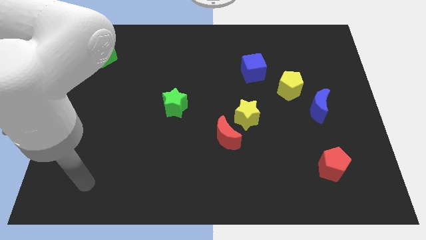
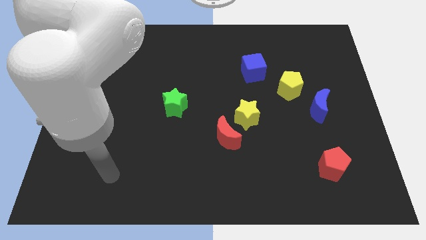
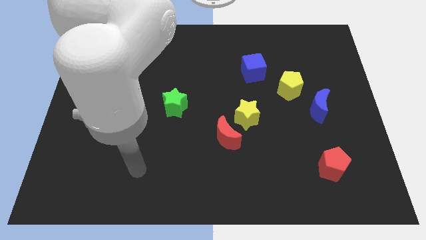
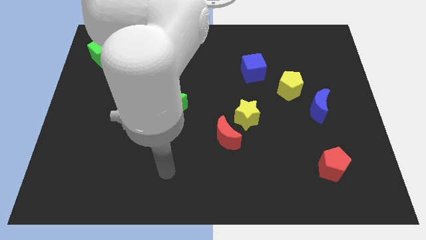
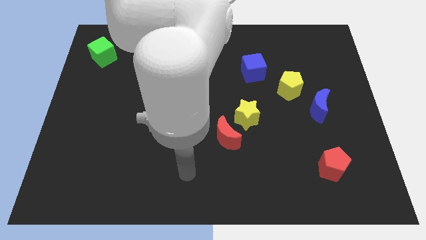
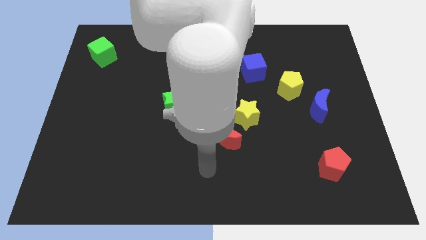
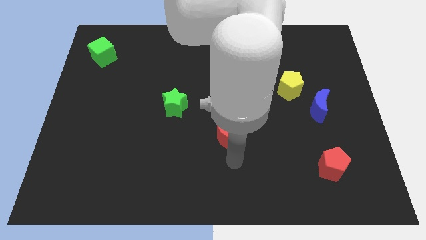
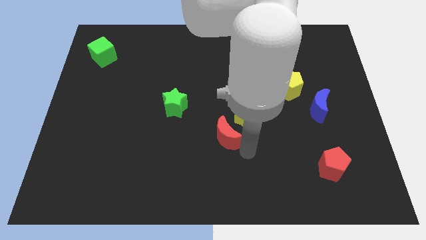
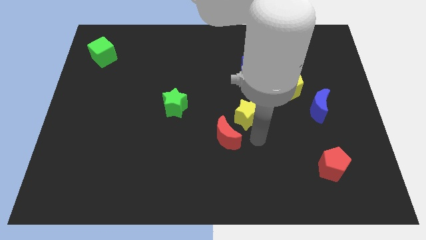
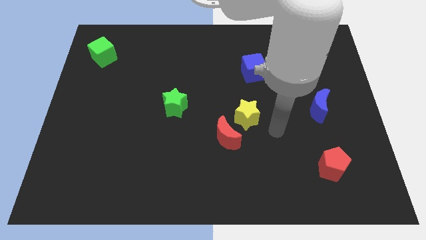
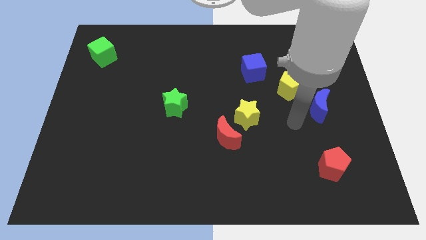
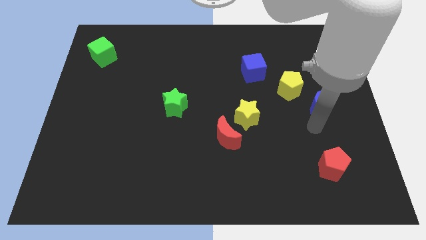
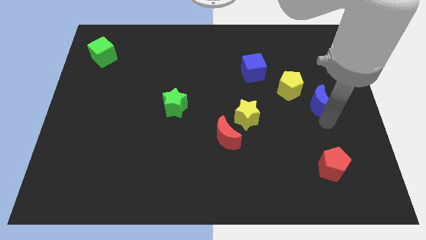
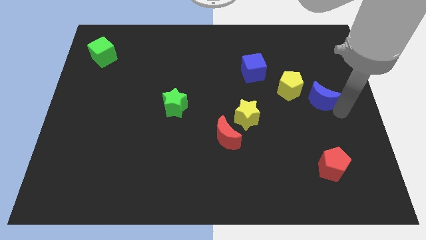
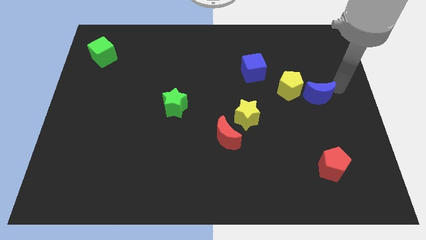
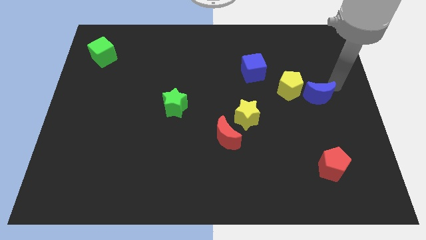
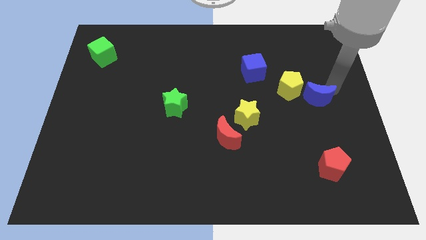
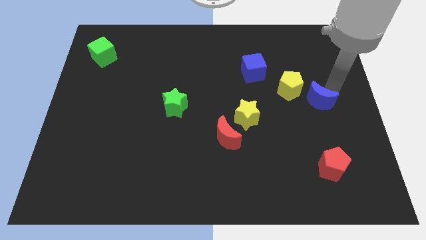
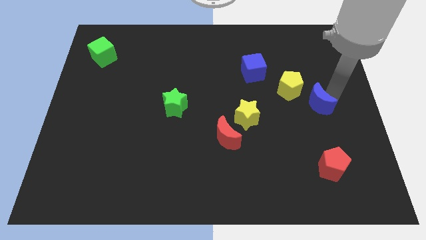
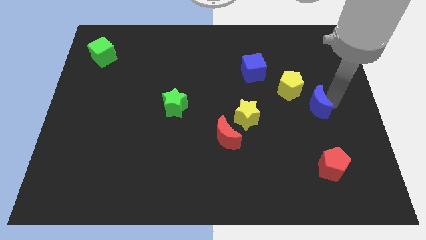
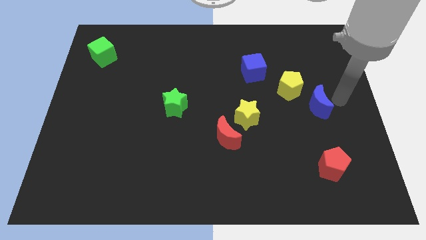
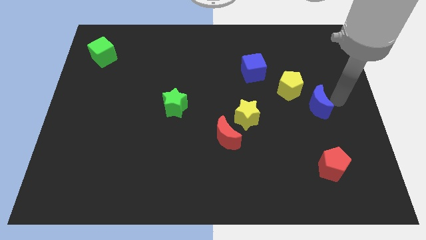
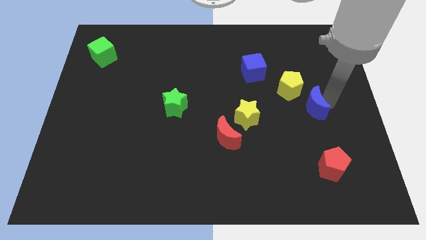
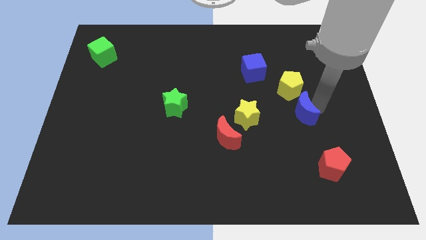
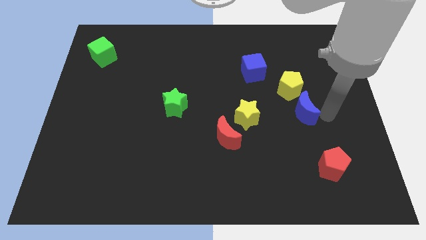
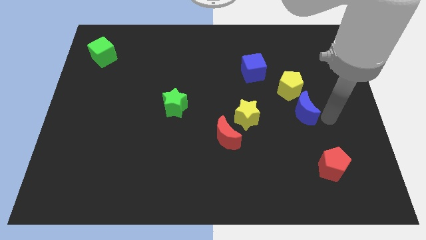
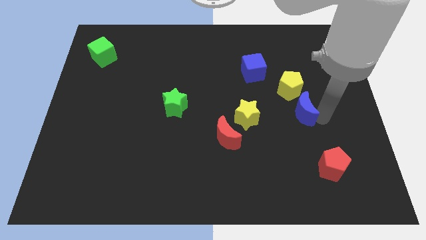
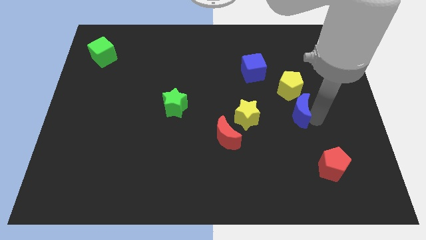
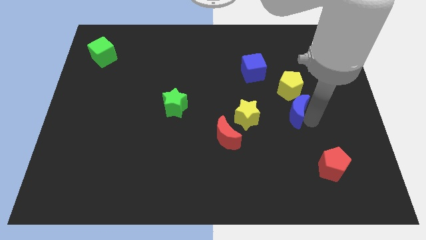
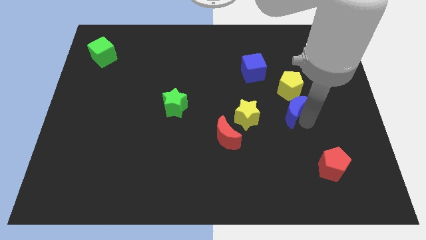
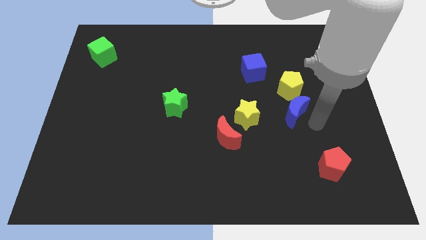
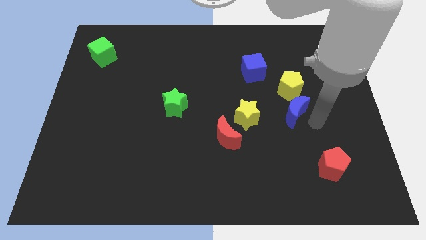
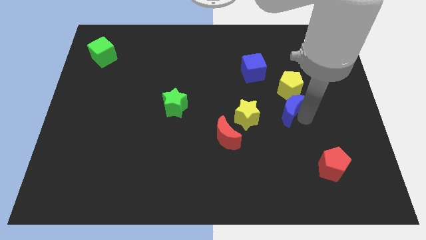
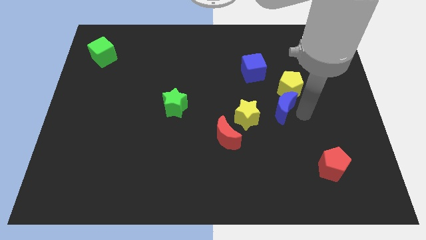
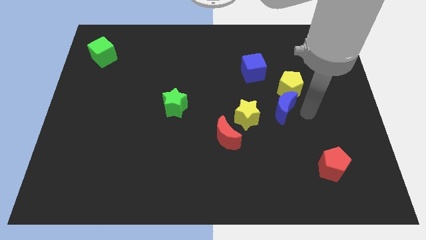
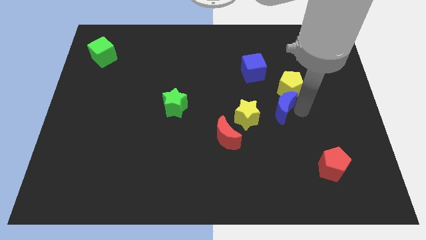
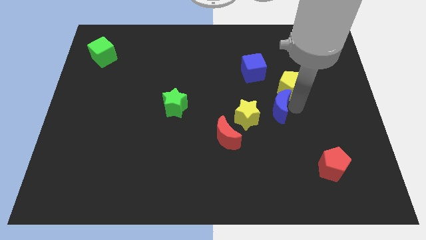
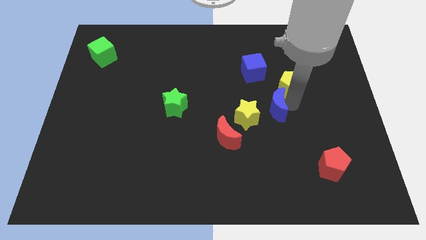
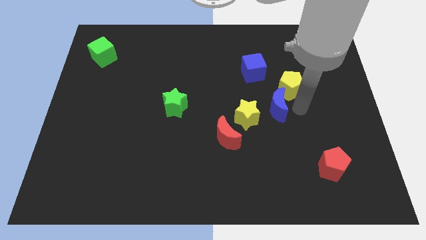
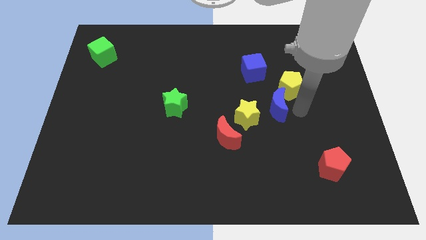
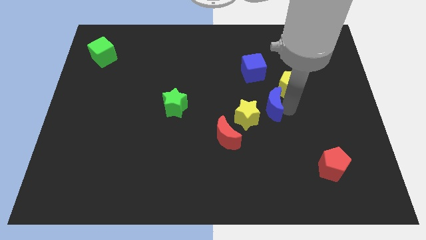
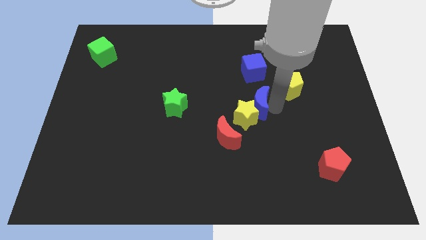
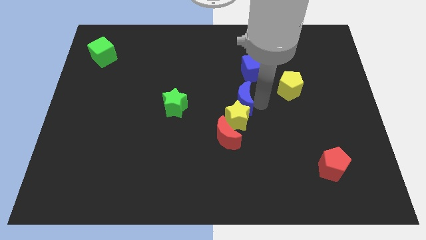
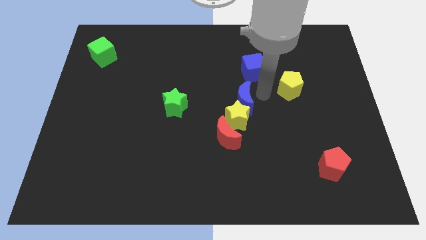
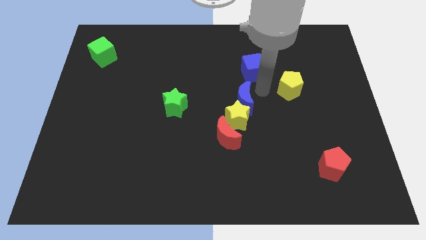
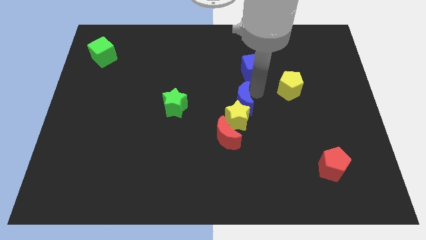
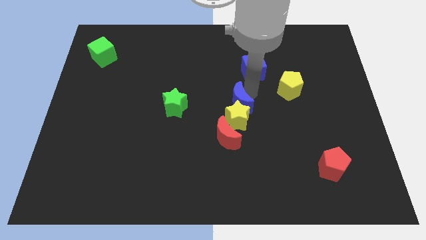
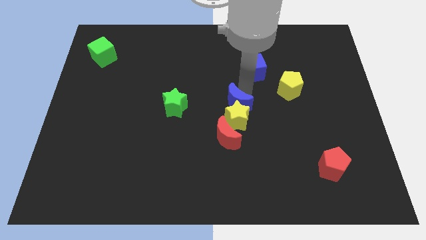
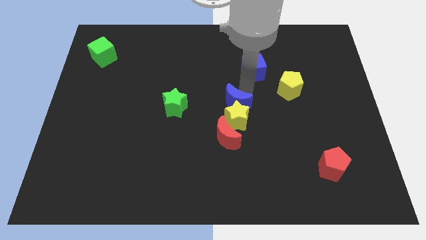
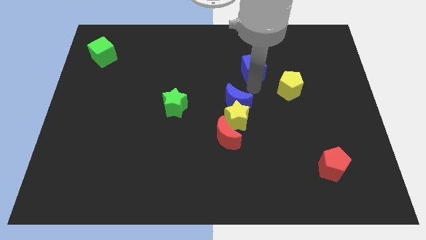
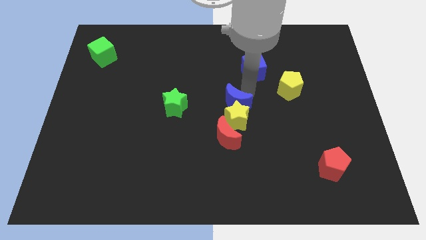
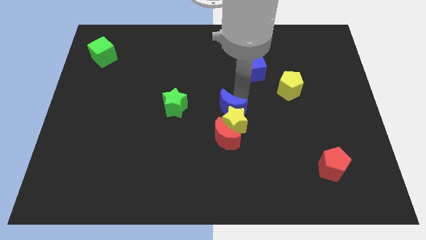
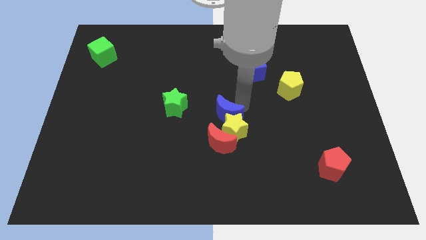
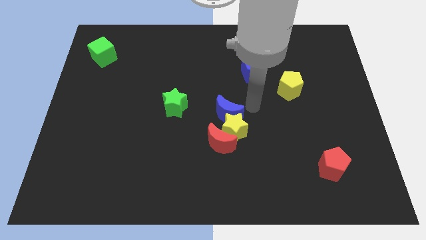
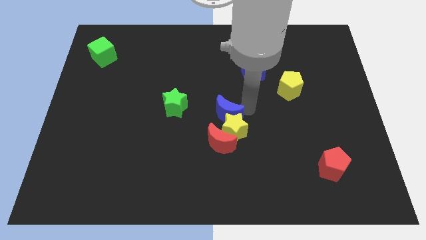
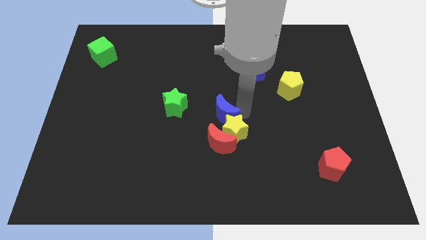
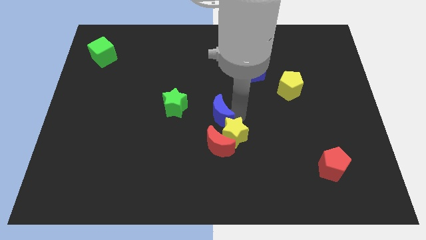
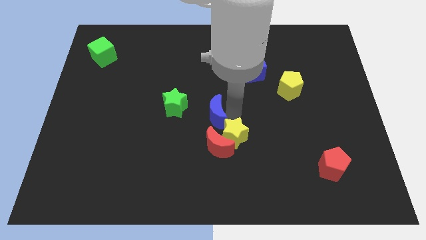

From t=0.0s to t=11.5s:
push the blue moon diagonally down and to the right of the green star
